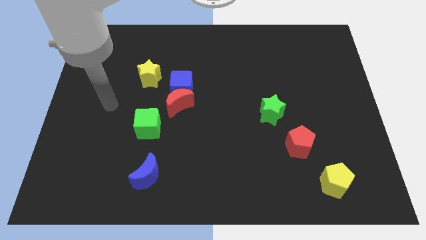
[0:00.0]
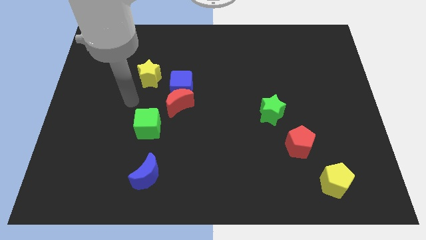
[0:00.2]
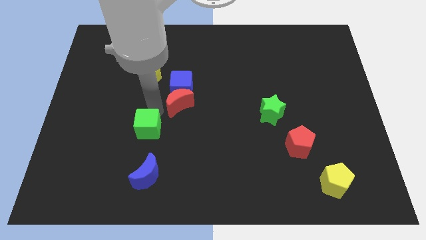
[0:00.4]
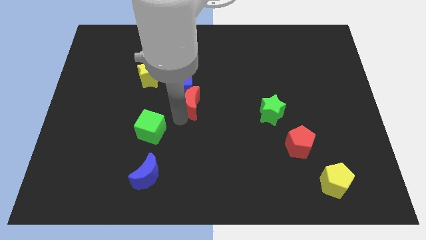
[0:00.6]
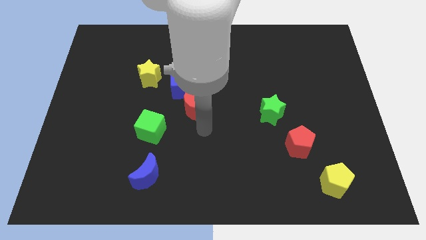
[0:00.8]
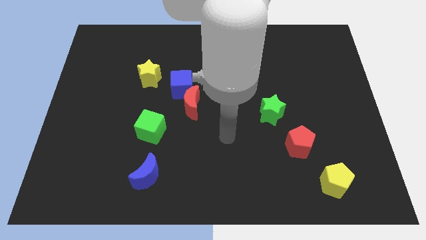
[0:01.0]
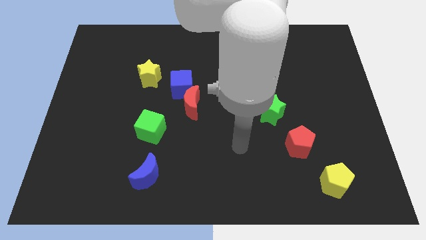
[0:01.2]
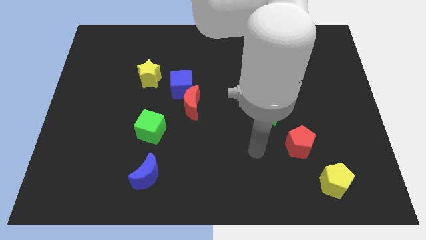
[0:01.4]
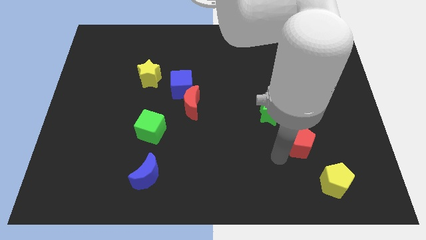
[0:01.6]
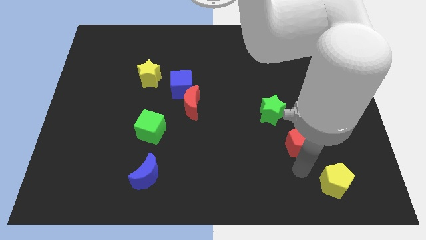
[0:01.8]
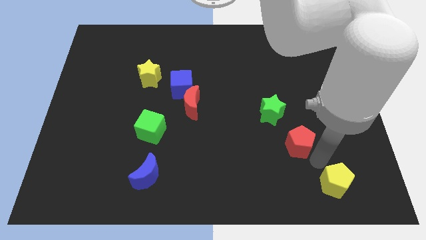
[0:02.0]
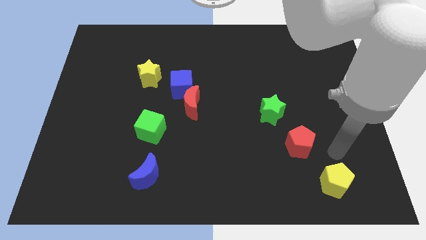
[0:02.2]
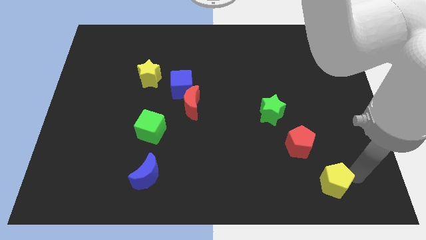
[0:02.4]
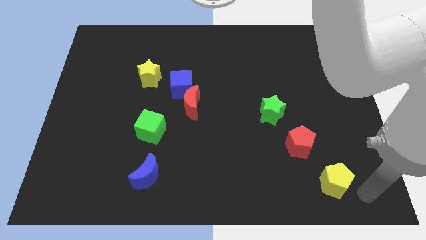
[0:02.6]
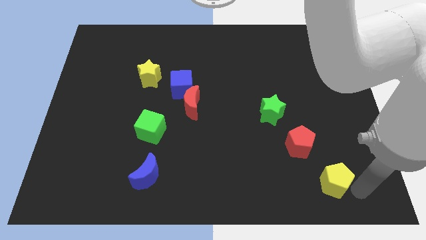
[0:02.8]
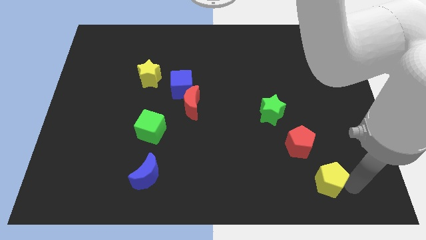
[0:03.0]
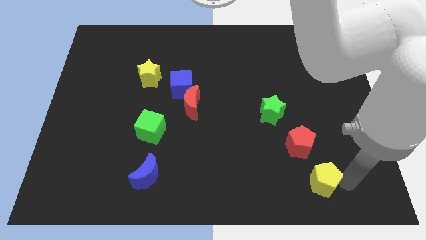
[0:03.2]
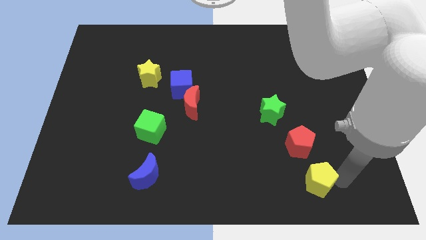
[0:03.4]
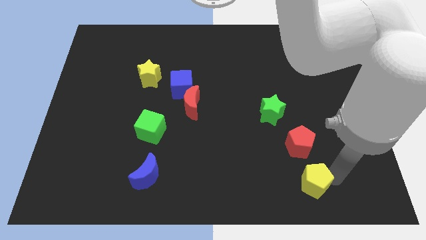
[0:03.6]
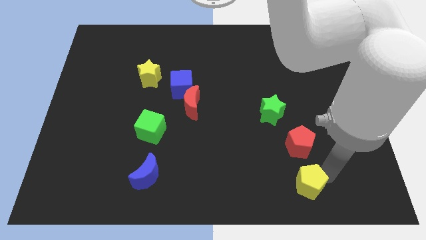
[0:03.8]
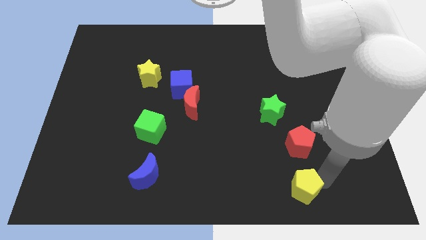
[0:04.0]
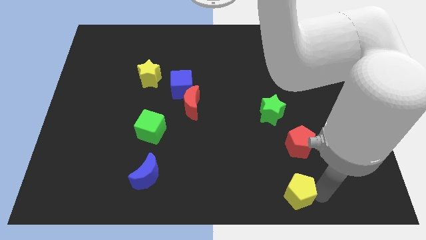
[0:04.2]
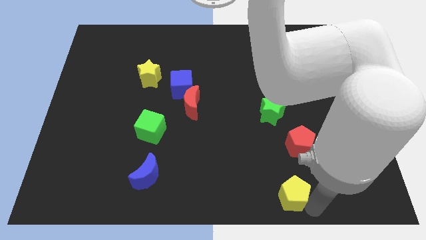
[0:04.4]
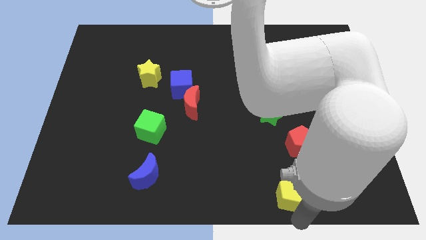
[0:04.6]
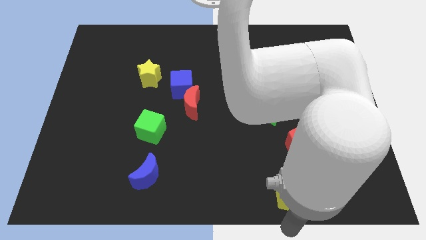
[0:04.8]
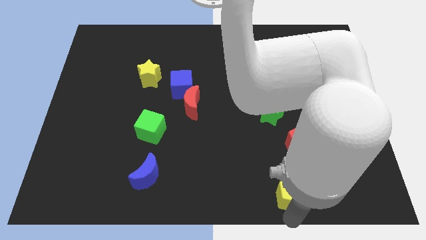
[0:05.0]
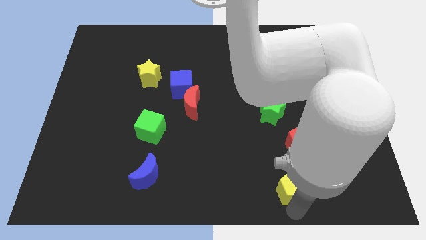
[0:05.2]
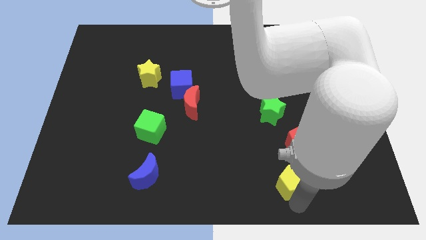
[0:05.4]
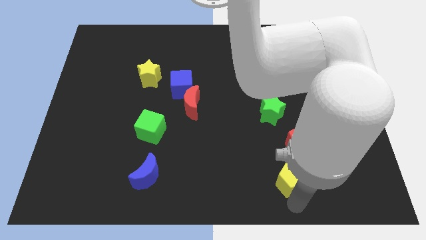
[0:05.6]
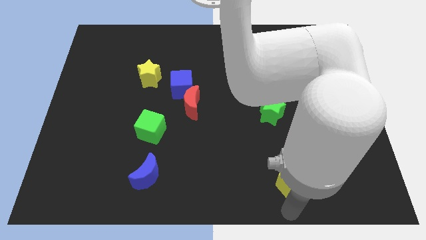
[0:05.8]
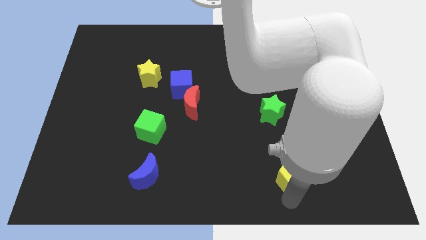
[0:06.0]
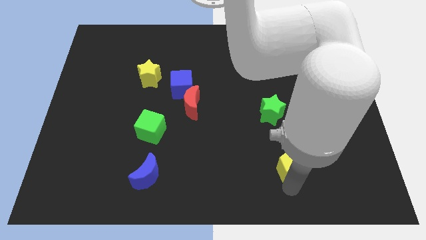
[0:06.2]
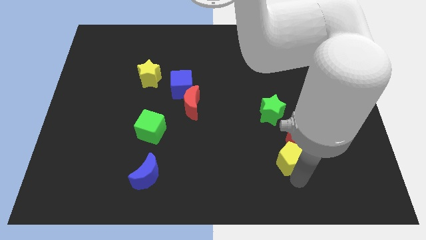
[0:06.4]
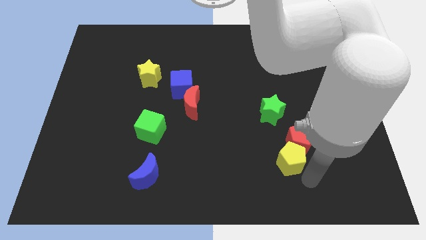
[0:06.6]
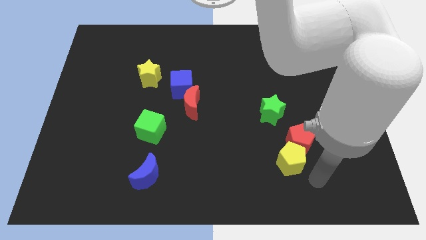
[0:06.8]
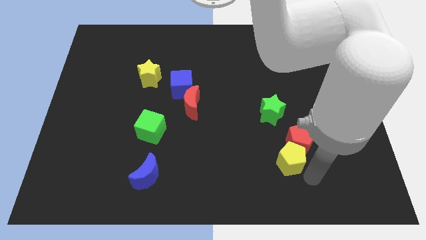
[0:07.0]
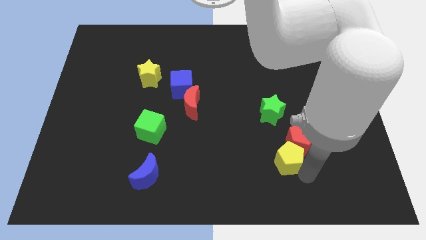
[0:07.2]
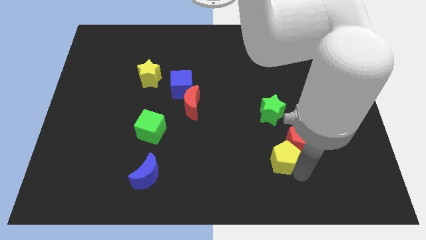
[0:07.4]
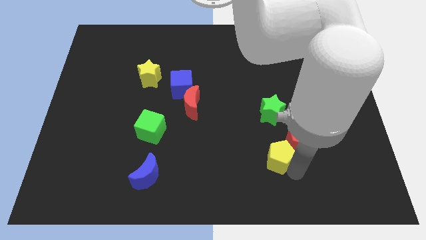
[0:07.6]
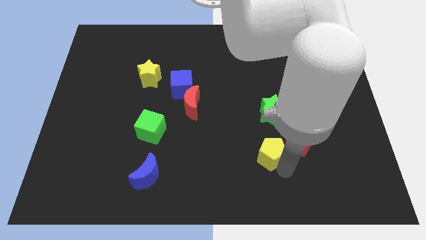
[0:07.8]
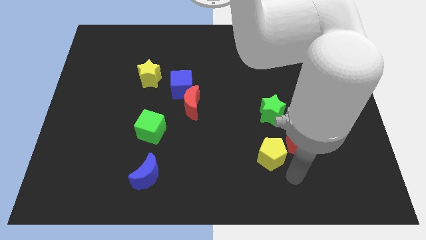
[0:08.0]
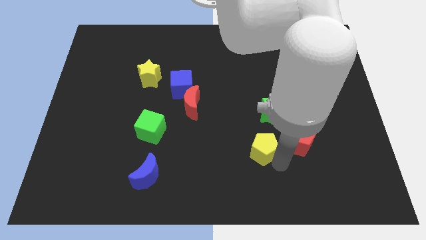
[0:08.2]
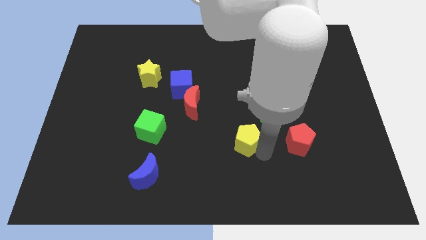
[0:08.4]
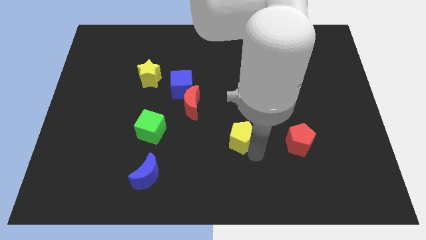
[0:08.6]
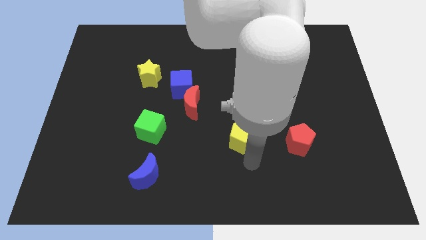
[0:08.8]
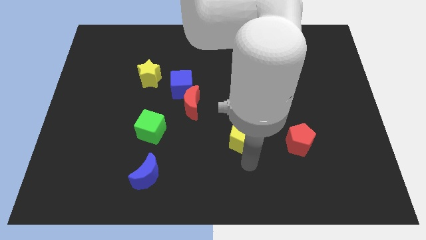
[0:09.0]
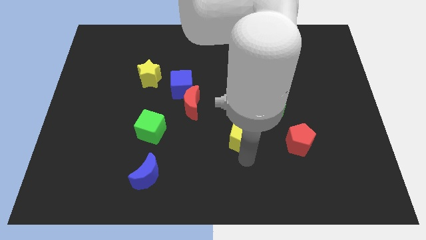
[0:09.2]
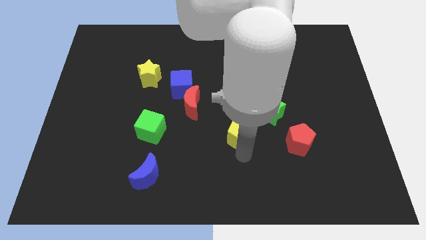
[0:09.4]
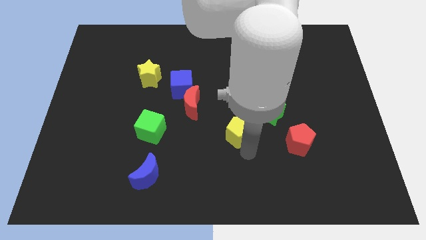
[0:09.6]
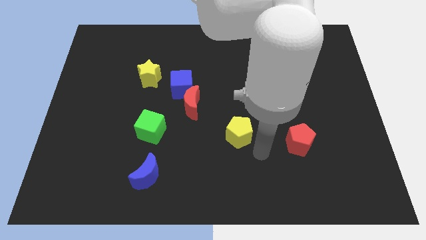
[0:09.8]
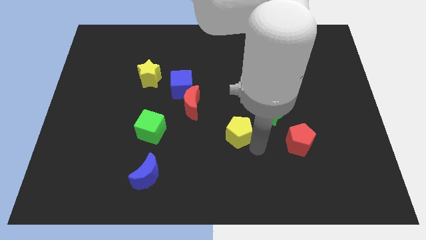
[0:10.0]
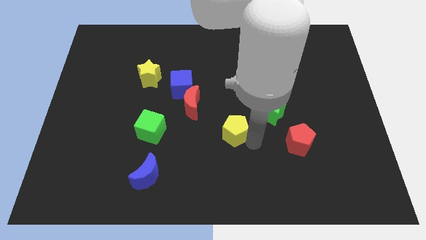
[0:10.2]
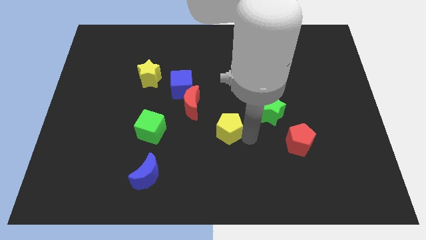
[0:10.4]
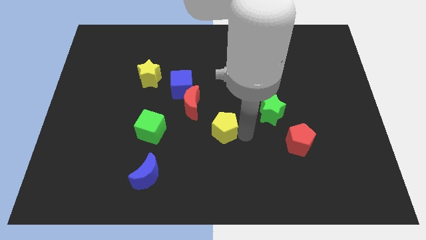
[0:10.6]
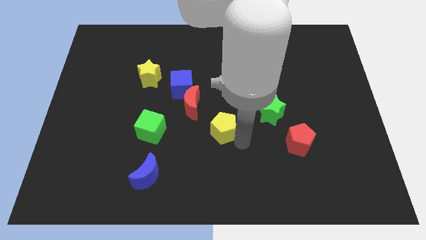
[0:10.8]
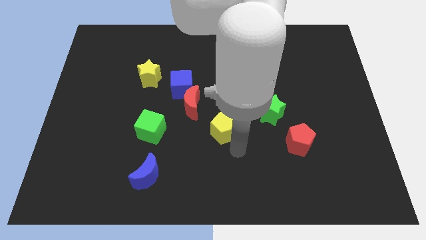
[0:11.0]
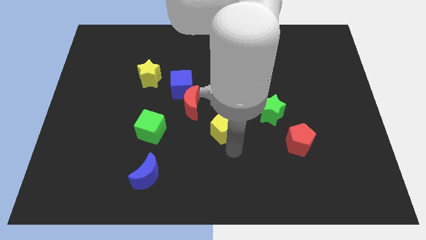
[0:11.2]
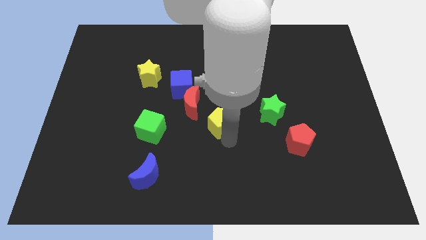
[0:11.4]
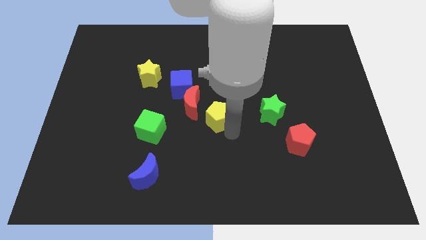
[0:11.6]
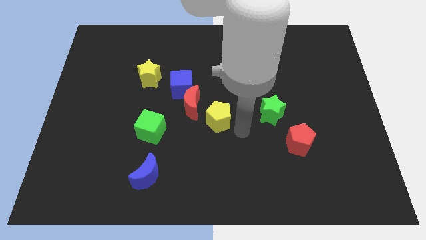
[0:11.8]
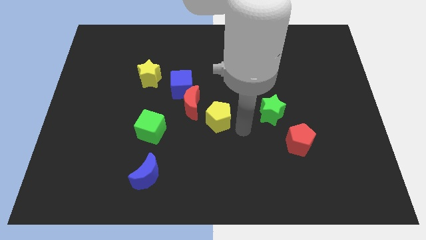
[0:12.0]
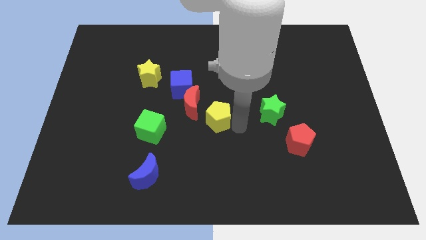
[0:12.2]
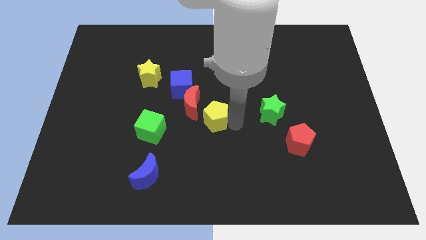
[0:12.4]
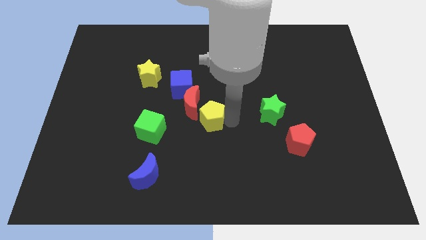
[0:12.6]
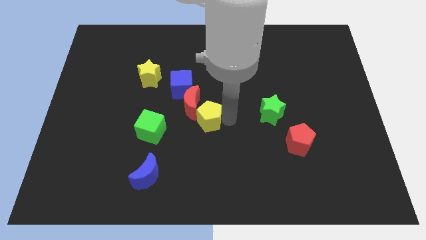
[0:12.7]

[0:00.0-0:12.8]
push the yellow pentagon to the red moon
